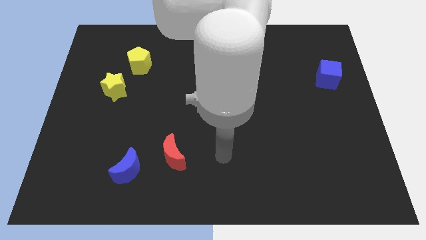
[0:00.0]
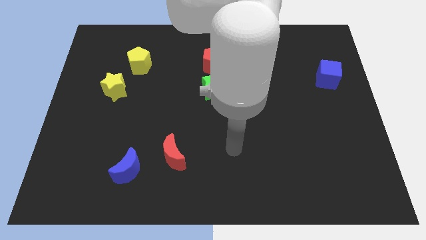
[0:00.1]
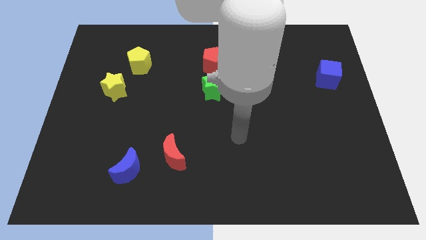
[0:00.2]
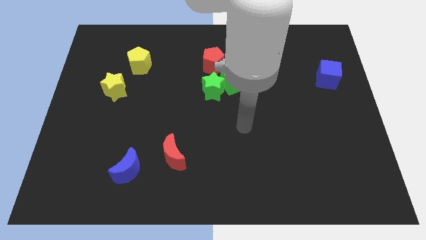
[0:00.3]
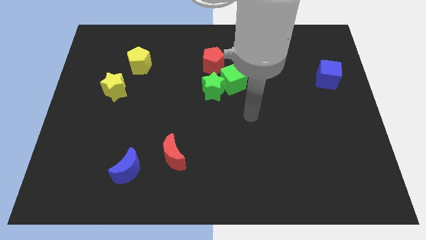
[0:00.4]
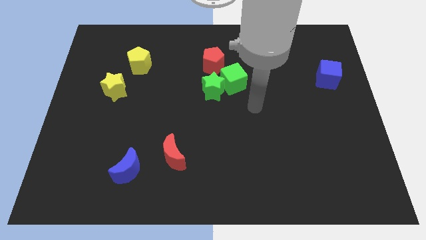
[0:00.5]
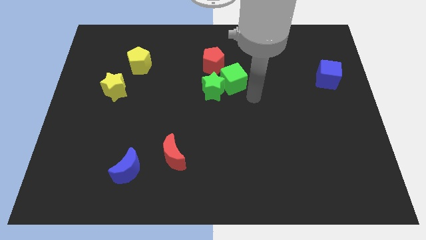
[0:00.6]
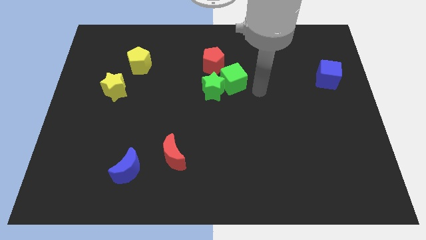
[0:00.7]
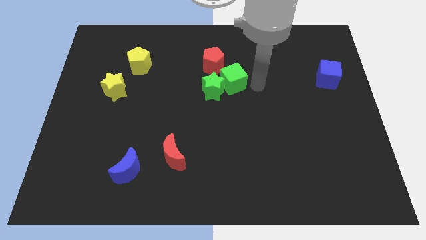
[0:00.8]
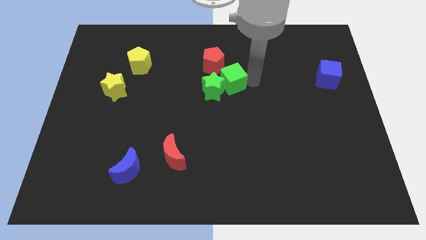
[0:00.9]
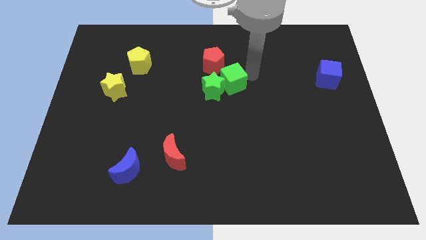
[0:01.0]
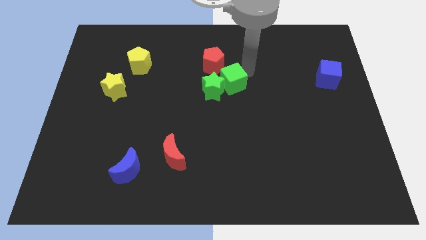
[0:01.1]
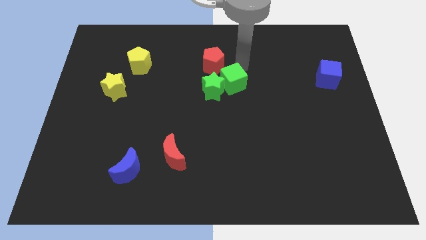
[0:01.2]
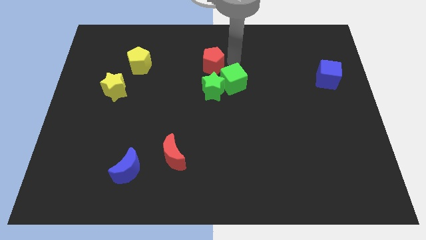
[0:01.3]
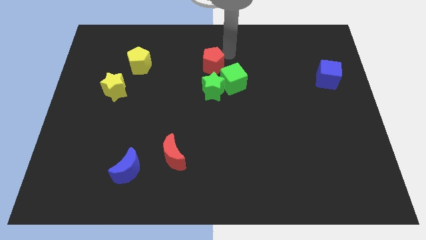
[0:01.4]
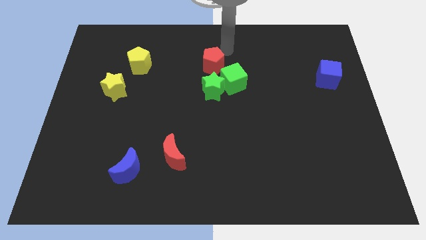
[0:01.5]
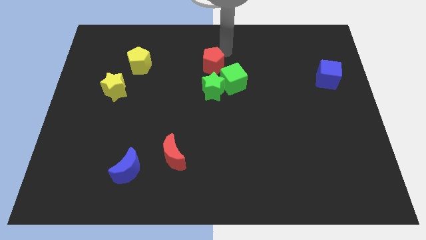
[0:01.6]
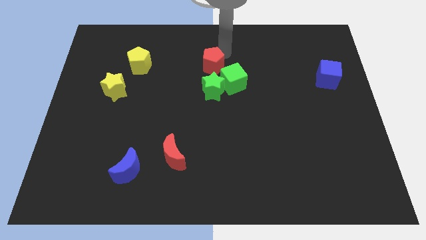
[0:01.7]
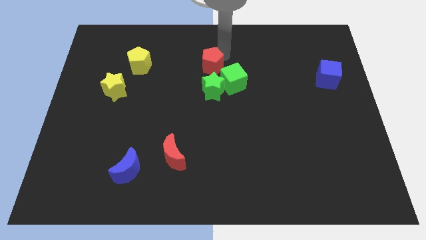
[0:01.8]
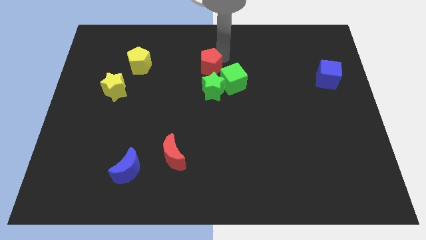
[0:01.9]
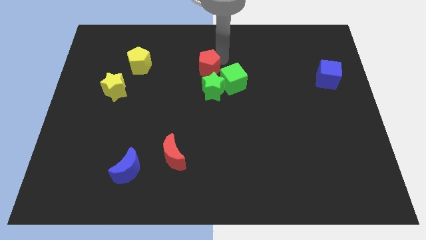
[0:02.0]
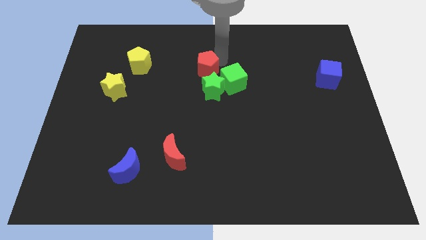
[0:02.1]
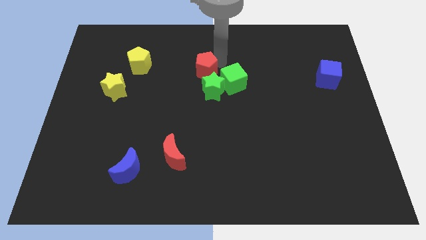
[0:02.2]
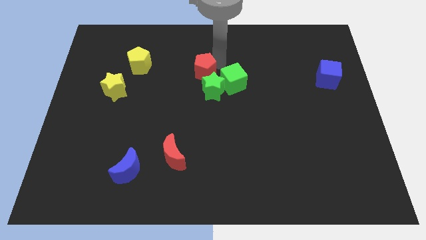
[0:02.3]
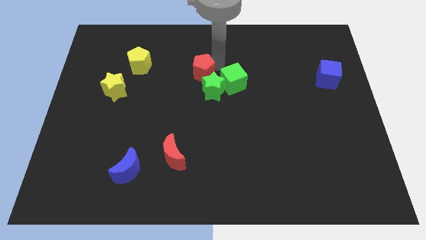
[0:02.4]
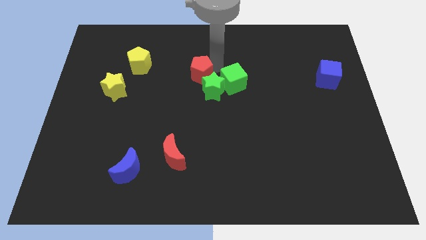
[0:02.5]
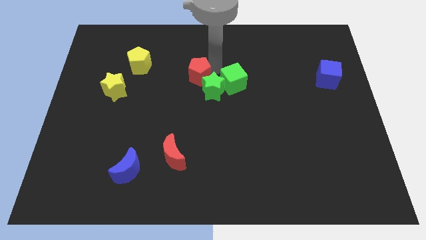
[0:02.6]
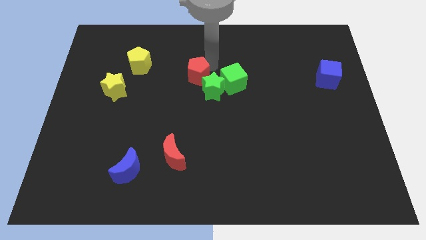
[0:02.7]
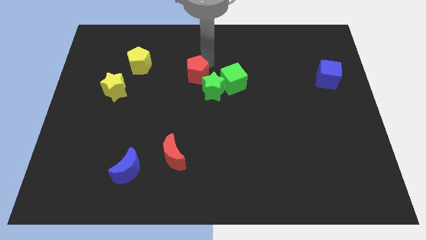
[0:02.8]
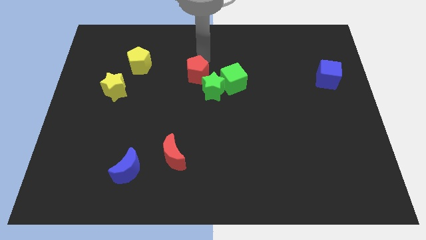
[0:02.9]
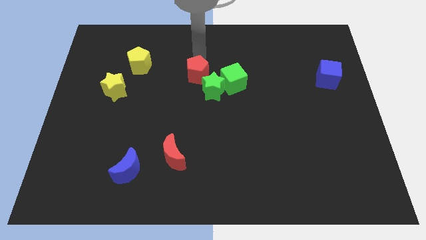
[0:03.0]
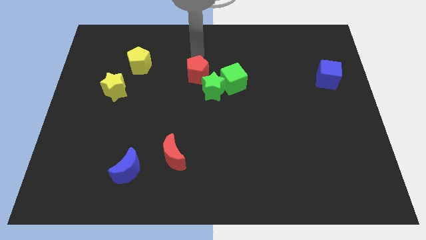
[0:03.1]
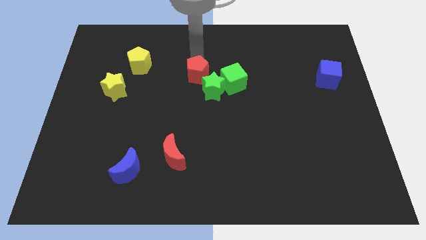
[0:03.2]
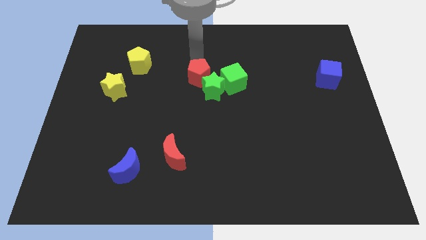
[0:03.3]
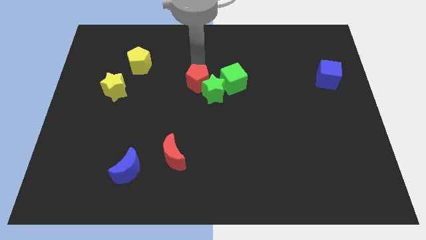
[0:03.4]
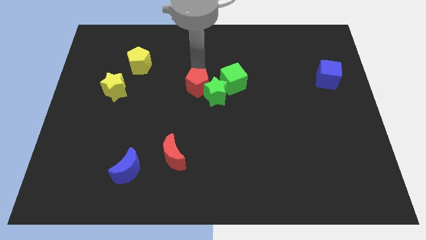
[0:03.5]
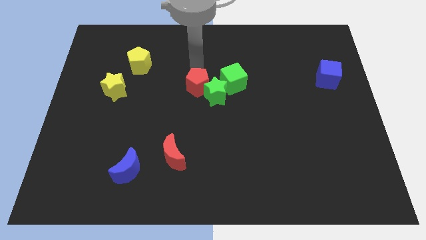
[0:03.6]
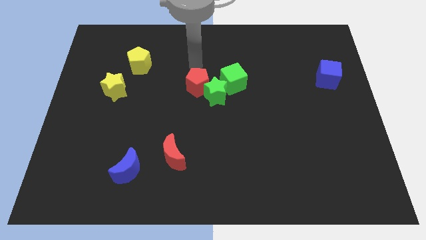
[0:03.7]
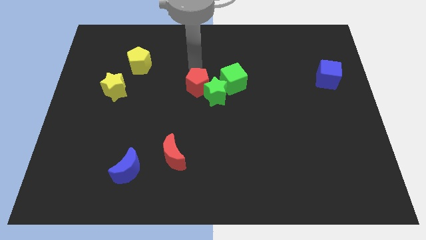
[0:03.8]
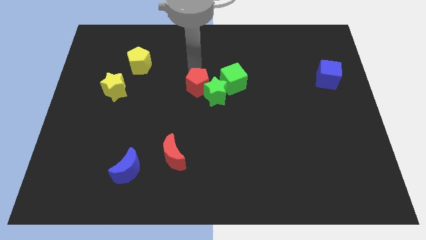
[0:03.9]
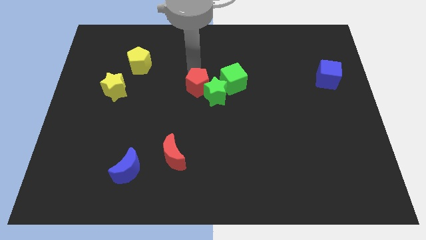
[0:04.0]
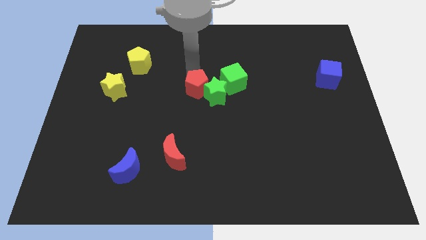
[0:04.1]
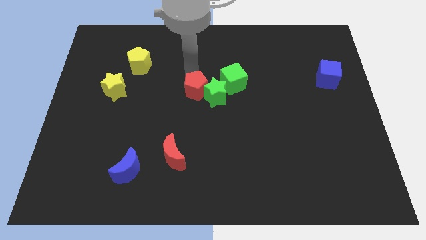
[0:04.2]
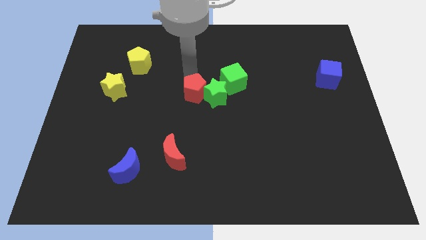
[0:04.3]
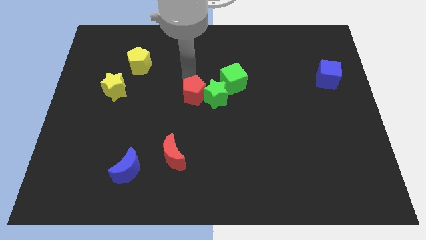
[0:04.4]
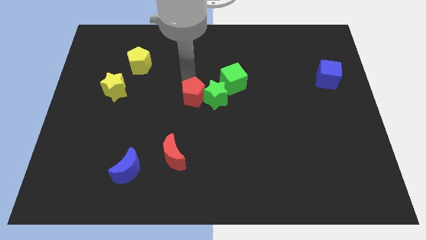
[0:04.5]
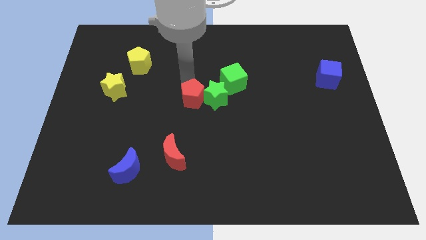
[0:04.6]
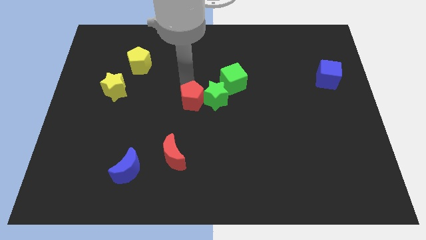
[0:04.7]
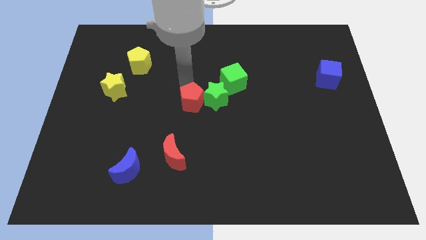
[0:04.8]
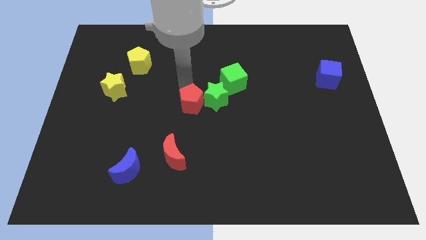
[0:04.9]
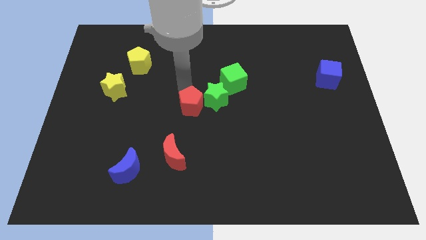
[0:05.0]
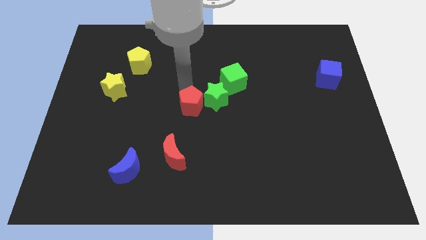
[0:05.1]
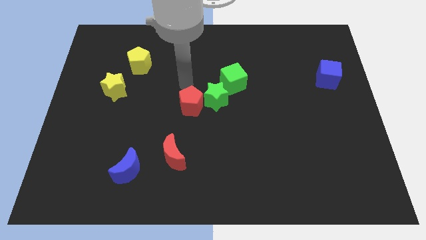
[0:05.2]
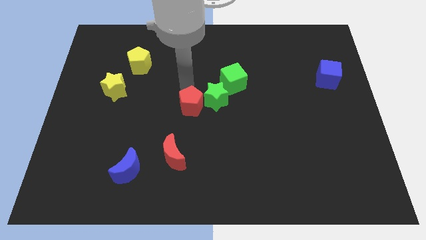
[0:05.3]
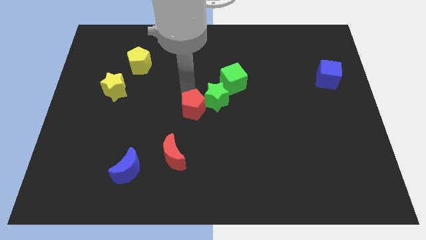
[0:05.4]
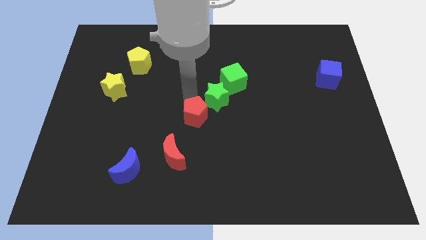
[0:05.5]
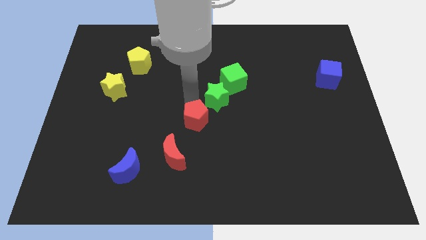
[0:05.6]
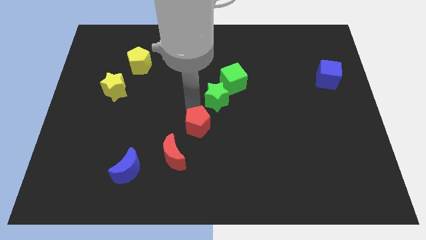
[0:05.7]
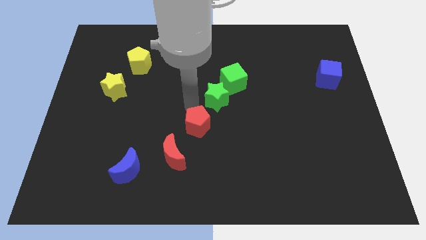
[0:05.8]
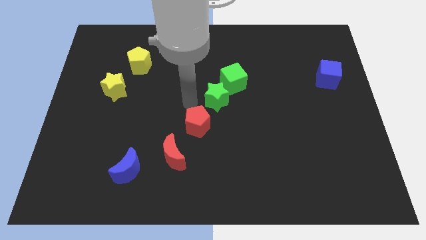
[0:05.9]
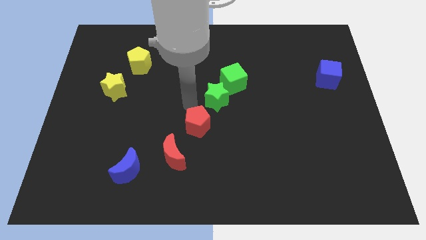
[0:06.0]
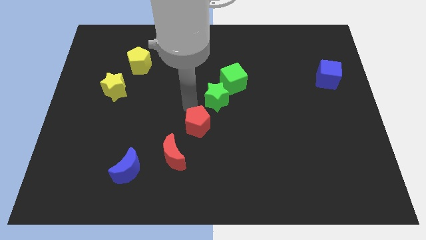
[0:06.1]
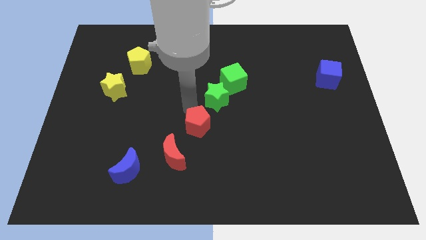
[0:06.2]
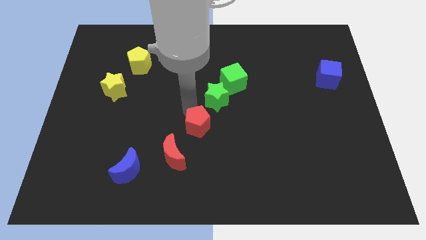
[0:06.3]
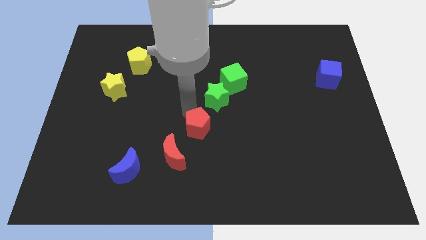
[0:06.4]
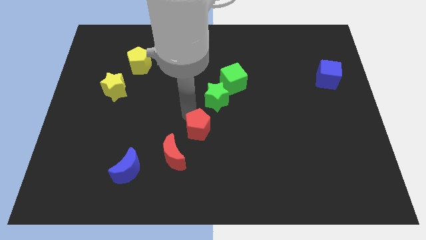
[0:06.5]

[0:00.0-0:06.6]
slide the red pentagon down

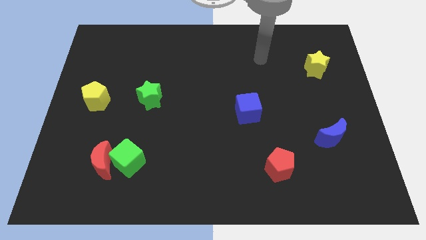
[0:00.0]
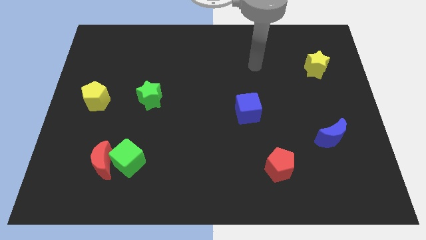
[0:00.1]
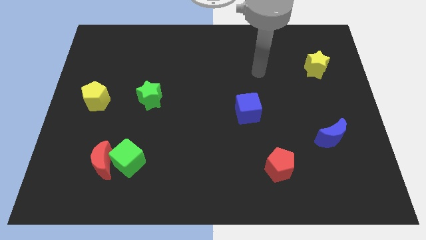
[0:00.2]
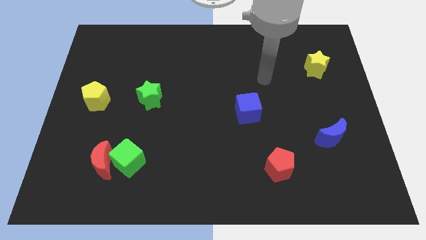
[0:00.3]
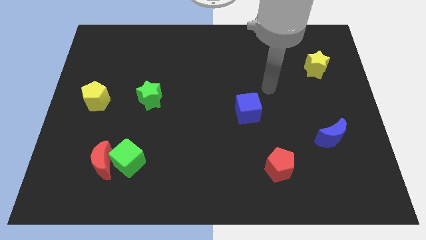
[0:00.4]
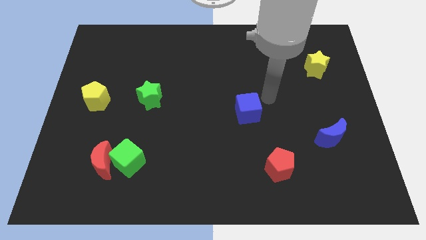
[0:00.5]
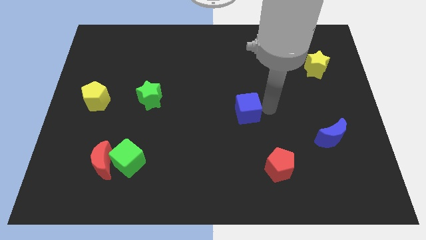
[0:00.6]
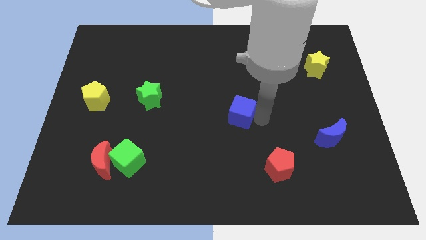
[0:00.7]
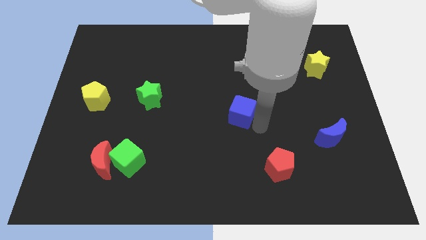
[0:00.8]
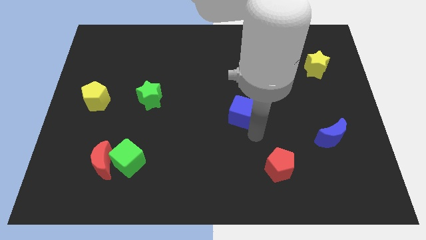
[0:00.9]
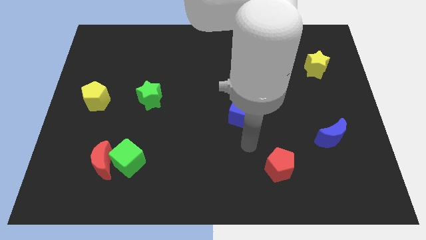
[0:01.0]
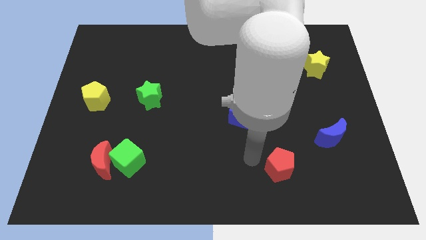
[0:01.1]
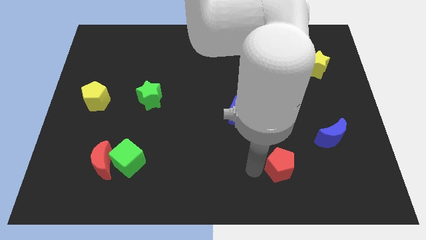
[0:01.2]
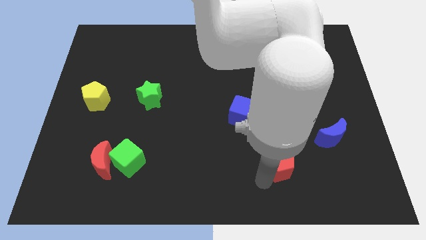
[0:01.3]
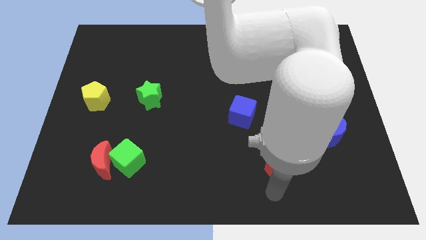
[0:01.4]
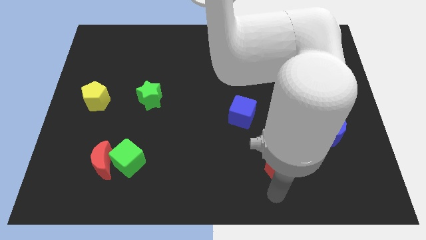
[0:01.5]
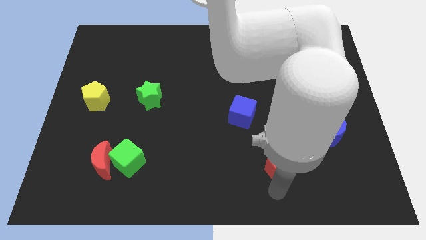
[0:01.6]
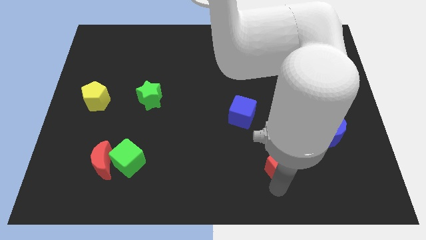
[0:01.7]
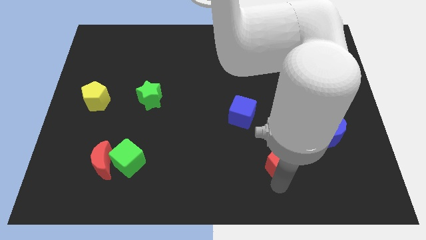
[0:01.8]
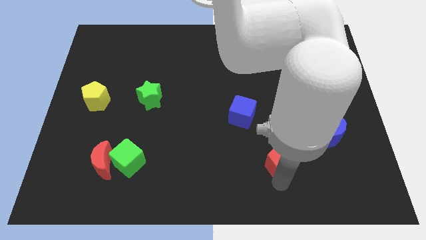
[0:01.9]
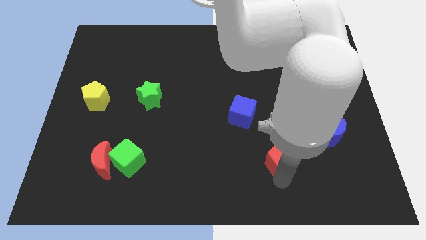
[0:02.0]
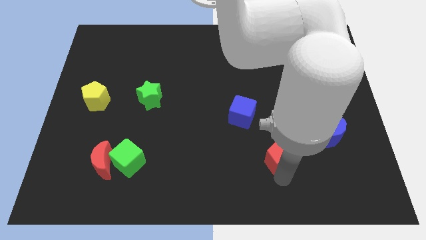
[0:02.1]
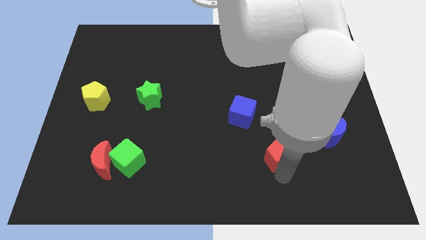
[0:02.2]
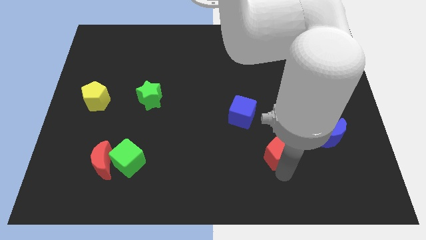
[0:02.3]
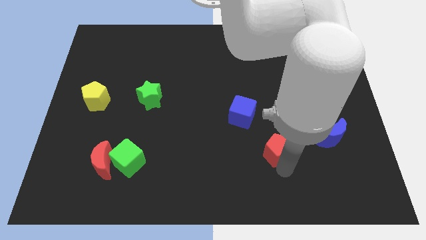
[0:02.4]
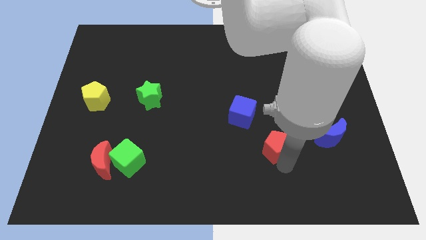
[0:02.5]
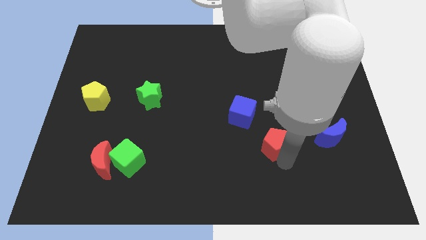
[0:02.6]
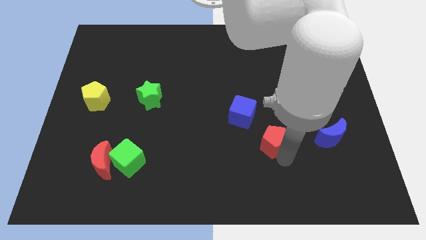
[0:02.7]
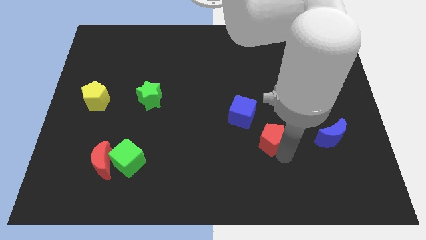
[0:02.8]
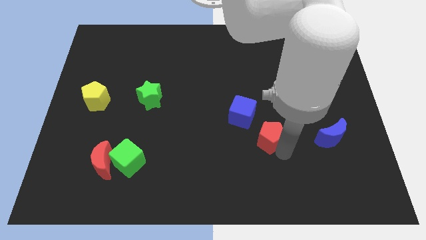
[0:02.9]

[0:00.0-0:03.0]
move the red pentagon up somewhat
